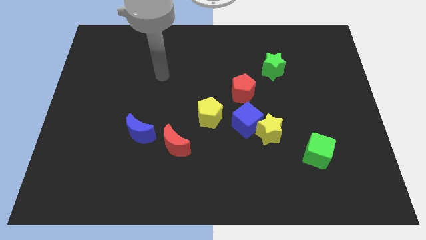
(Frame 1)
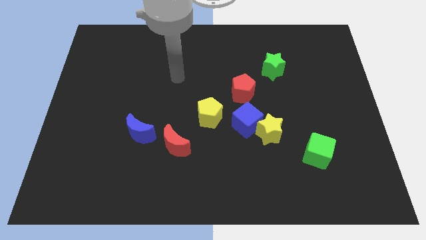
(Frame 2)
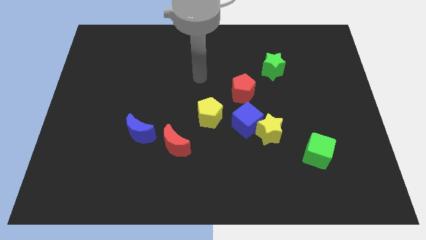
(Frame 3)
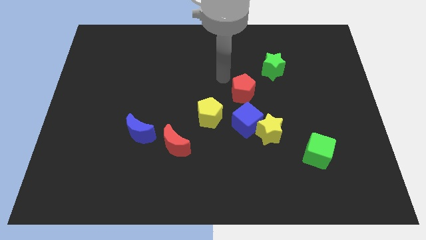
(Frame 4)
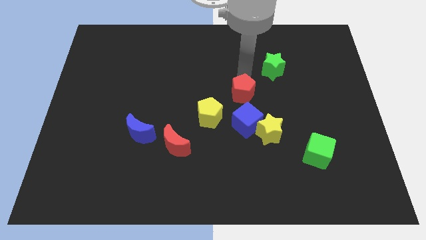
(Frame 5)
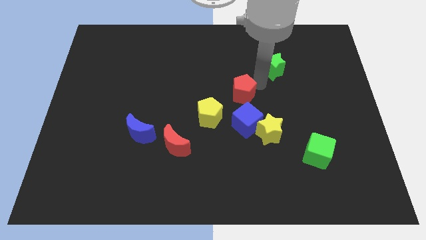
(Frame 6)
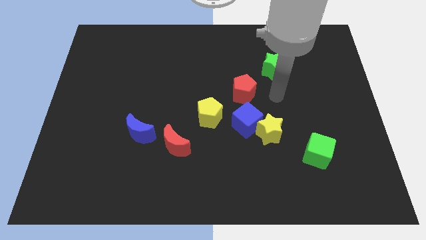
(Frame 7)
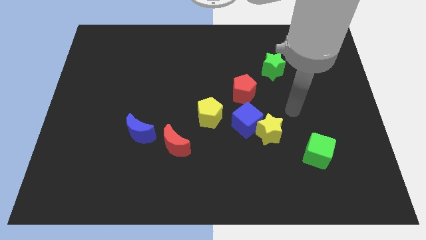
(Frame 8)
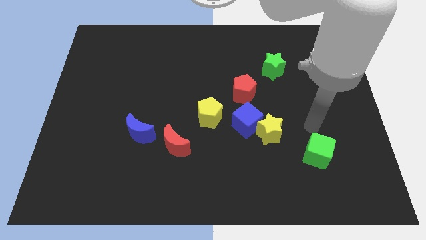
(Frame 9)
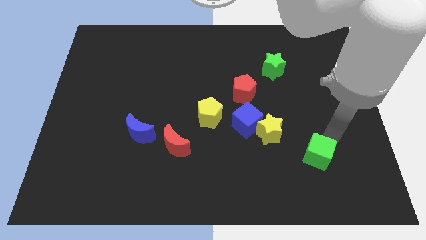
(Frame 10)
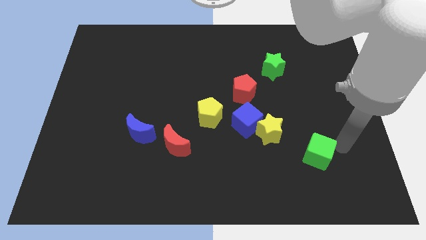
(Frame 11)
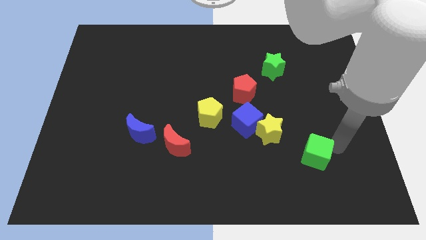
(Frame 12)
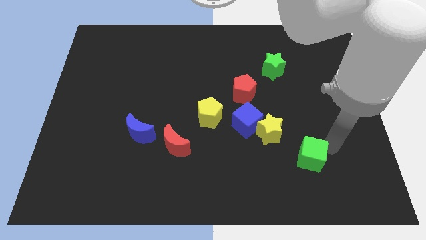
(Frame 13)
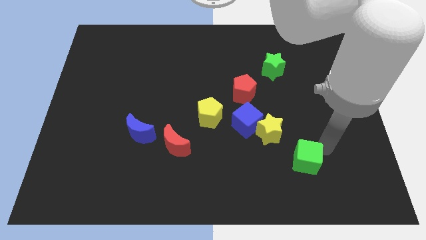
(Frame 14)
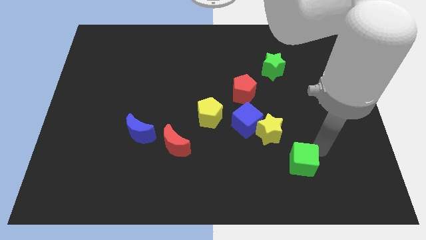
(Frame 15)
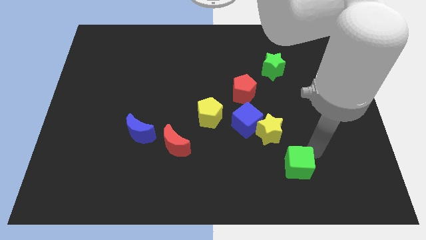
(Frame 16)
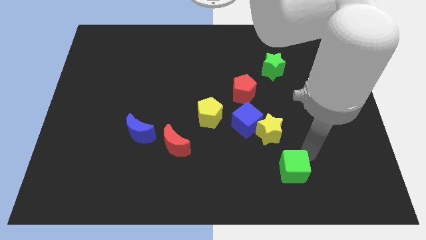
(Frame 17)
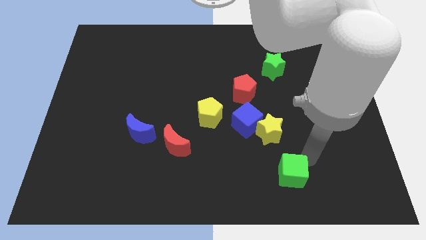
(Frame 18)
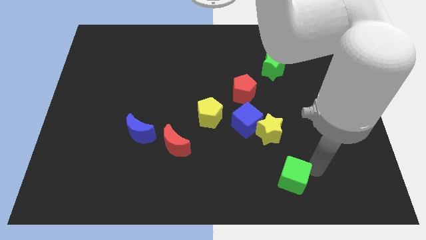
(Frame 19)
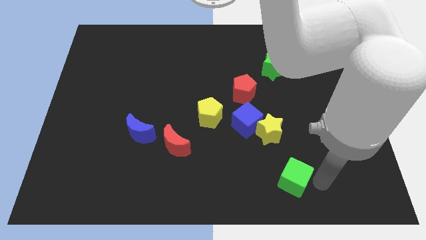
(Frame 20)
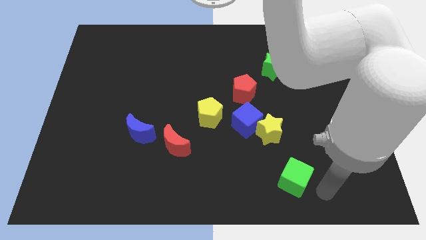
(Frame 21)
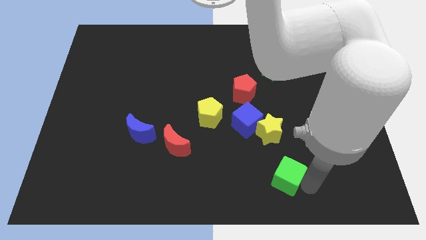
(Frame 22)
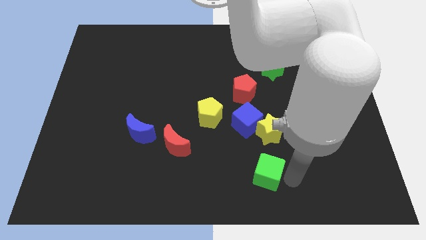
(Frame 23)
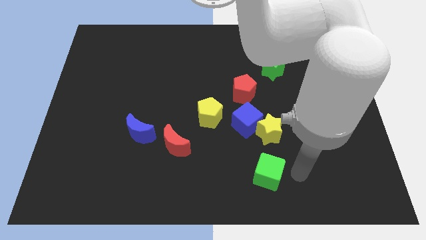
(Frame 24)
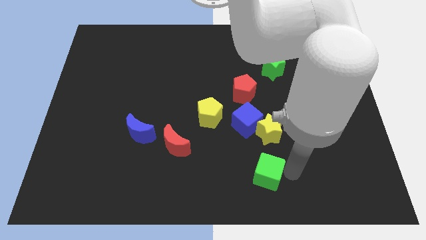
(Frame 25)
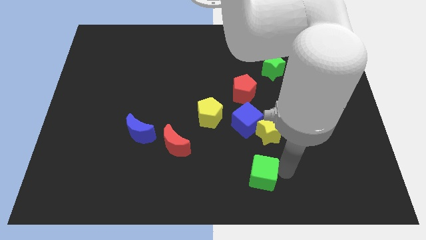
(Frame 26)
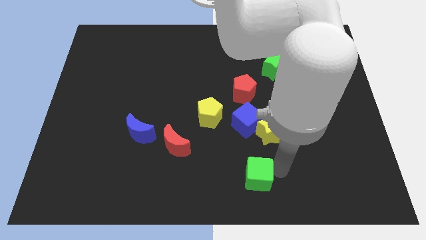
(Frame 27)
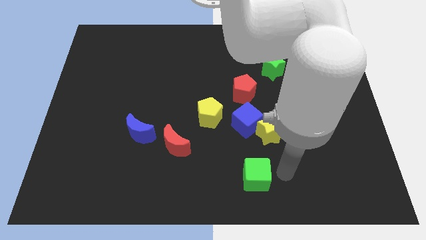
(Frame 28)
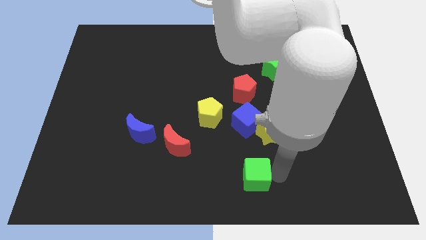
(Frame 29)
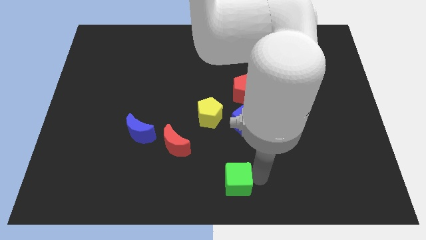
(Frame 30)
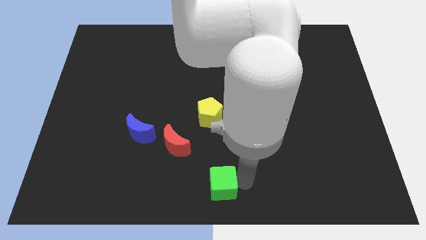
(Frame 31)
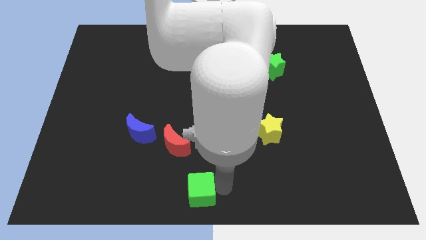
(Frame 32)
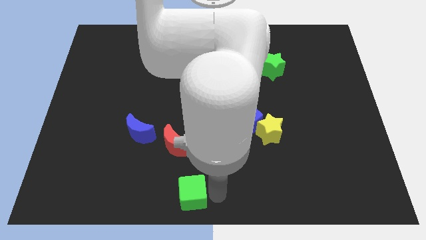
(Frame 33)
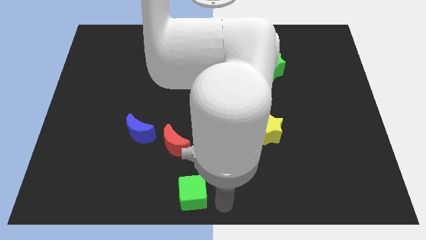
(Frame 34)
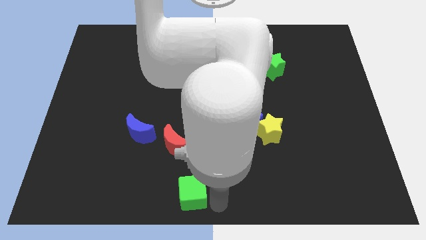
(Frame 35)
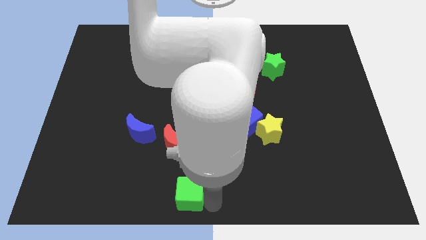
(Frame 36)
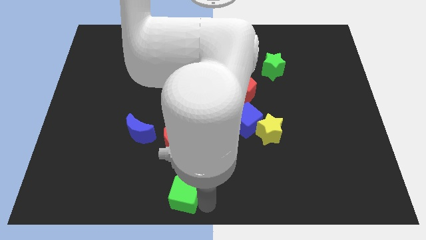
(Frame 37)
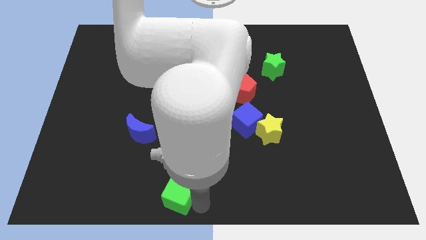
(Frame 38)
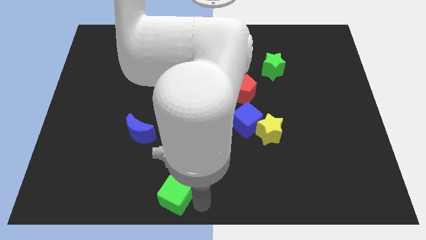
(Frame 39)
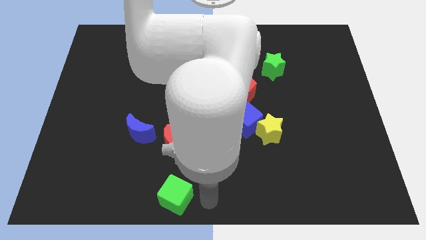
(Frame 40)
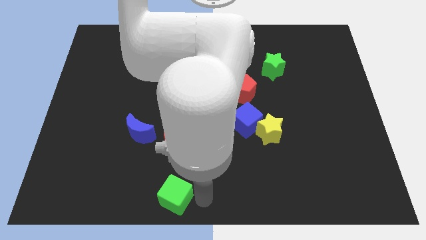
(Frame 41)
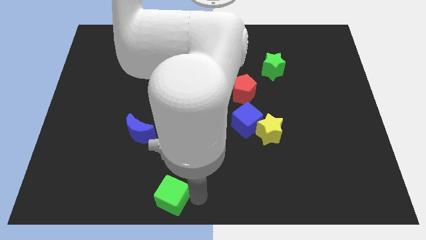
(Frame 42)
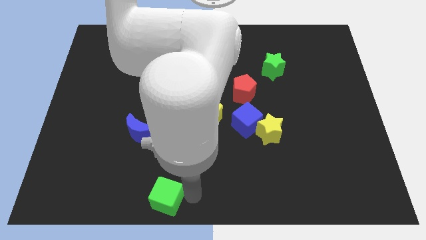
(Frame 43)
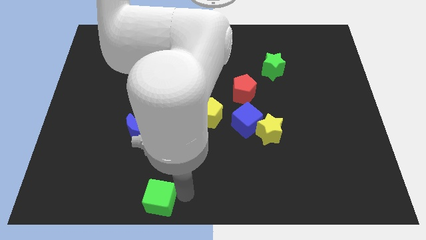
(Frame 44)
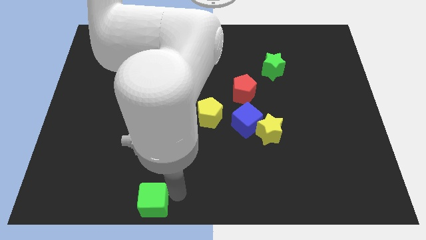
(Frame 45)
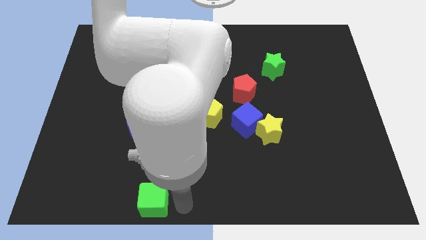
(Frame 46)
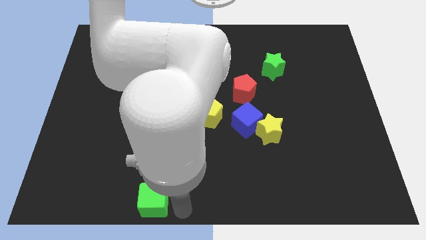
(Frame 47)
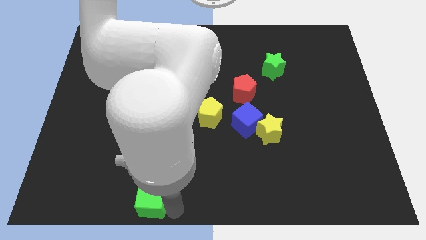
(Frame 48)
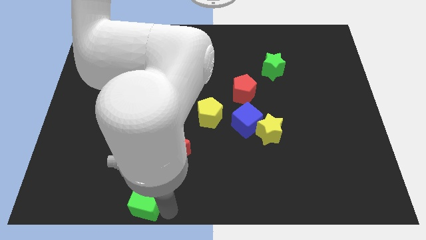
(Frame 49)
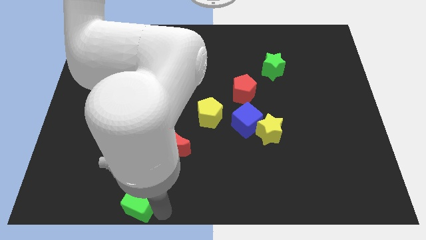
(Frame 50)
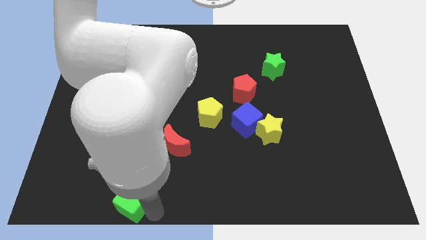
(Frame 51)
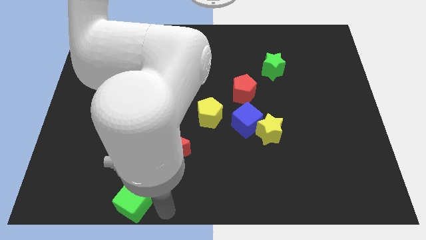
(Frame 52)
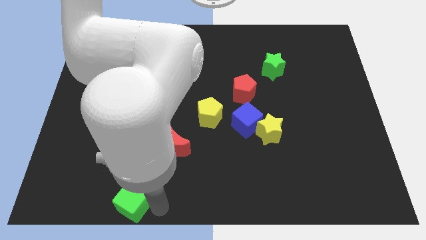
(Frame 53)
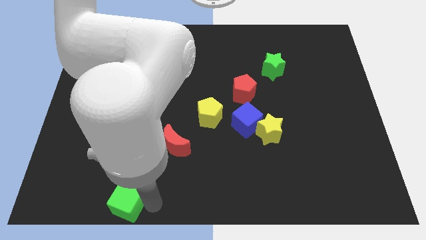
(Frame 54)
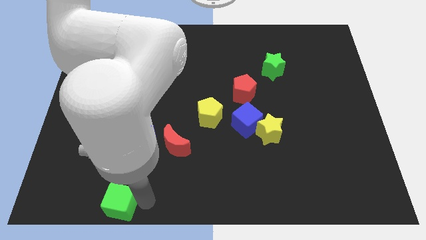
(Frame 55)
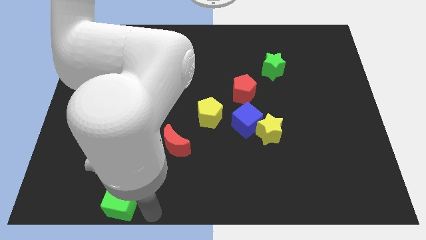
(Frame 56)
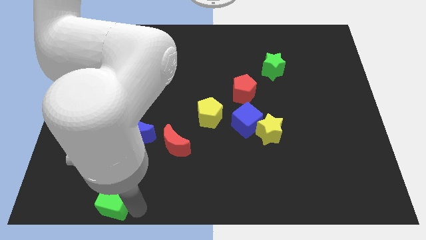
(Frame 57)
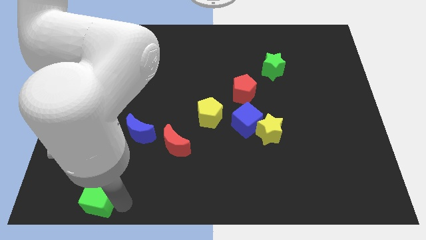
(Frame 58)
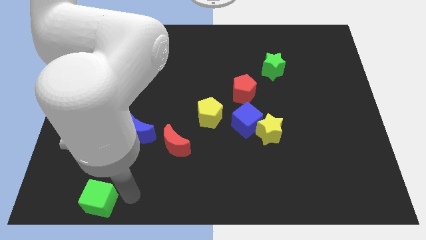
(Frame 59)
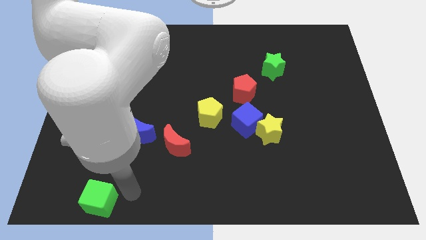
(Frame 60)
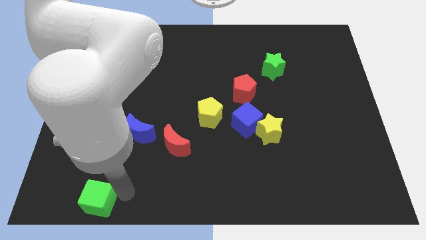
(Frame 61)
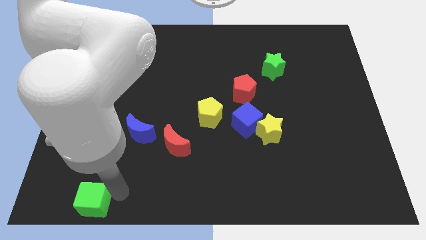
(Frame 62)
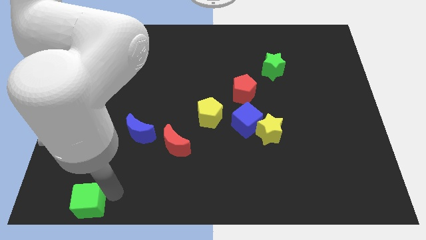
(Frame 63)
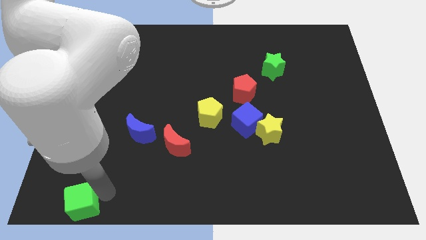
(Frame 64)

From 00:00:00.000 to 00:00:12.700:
slide the green cube to the bottom left

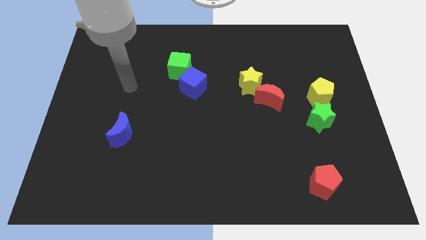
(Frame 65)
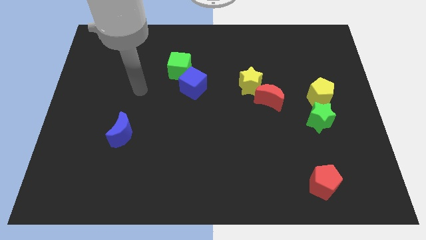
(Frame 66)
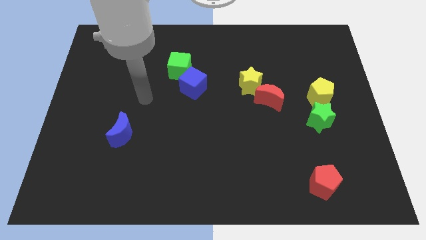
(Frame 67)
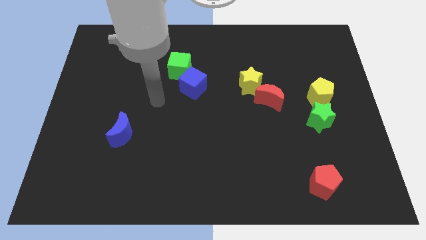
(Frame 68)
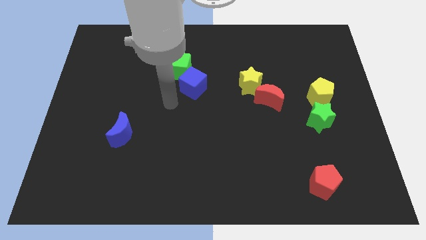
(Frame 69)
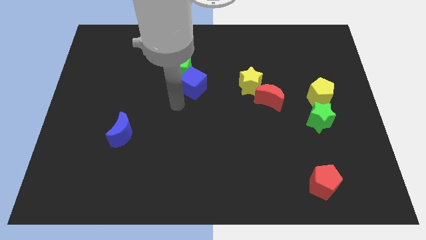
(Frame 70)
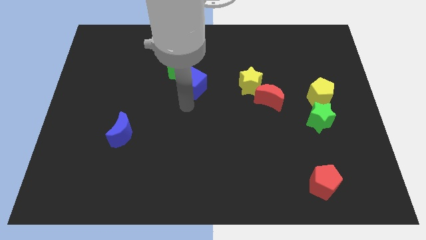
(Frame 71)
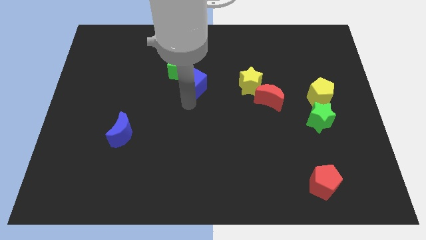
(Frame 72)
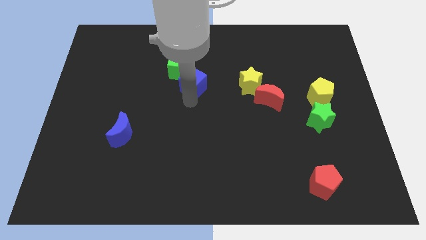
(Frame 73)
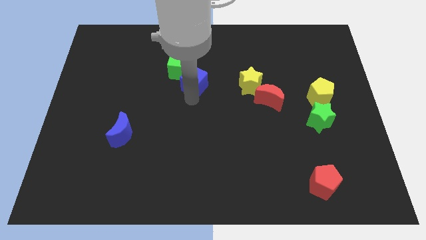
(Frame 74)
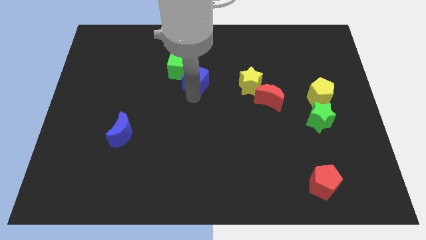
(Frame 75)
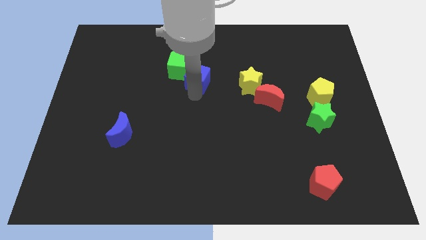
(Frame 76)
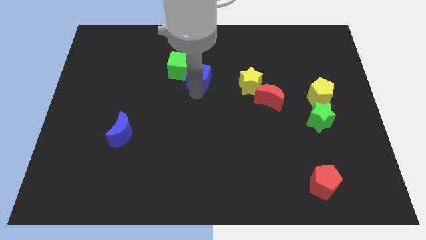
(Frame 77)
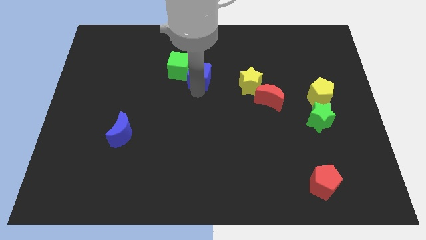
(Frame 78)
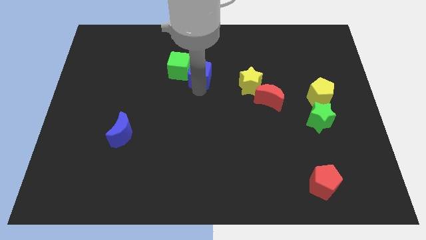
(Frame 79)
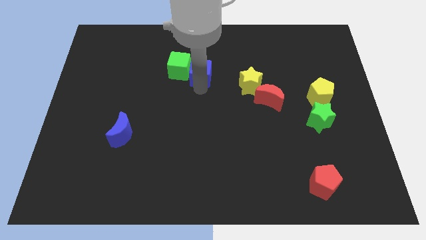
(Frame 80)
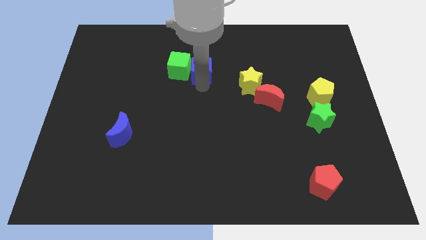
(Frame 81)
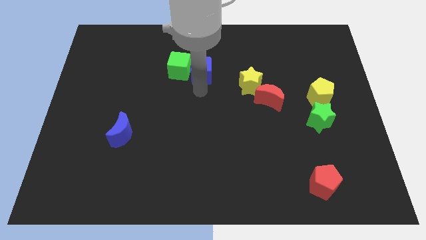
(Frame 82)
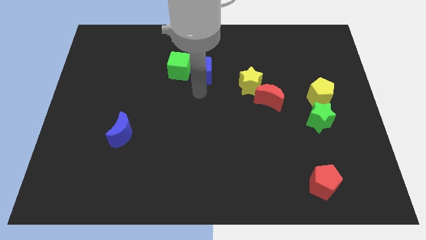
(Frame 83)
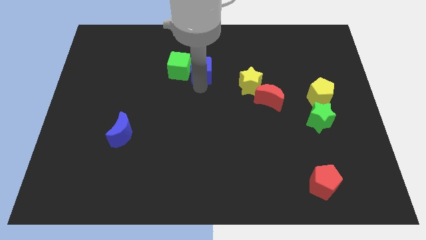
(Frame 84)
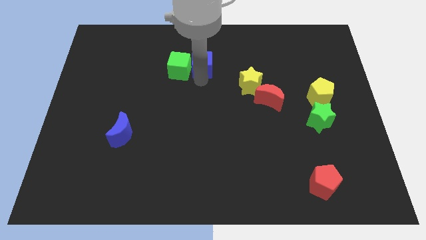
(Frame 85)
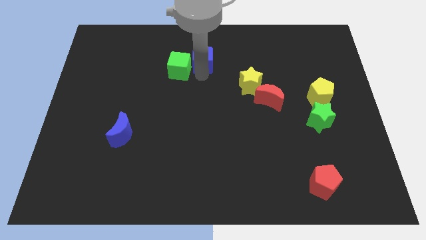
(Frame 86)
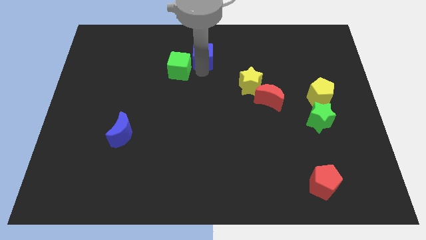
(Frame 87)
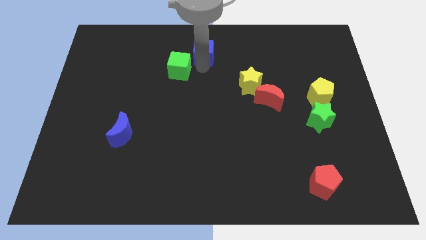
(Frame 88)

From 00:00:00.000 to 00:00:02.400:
push the blue cube to the top
